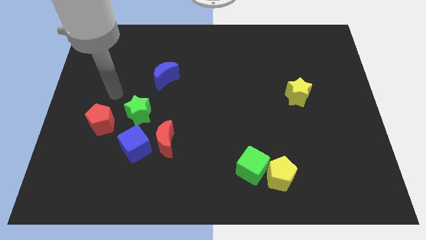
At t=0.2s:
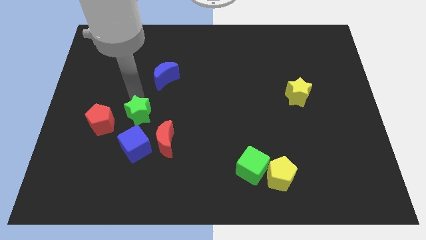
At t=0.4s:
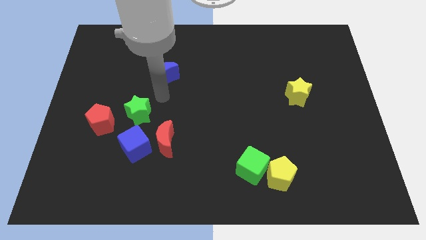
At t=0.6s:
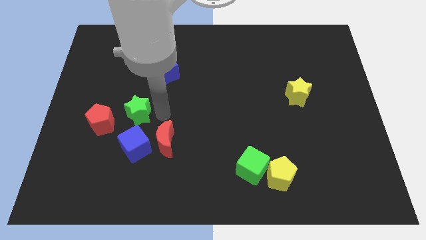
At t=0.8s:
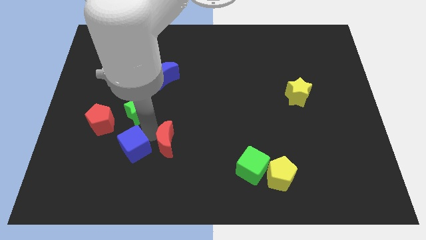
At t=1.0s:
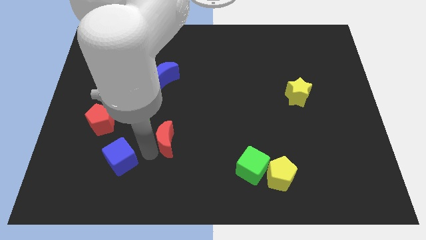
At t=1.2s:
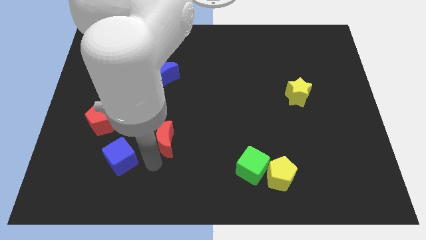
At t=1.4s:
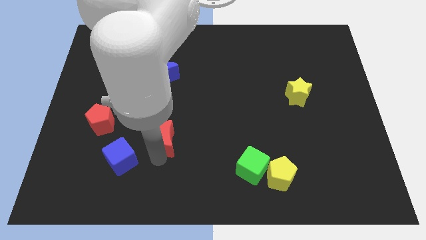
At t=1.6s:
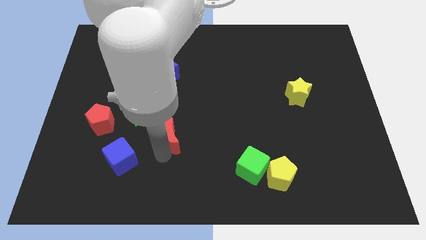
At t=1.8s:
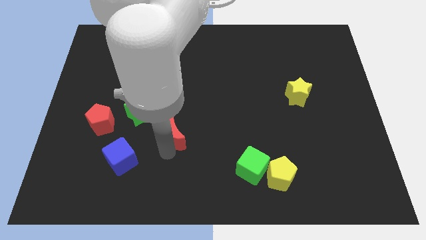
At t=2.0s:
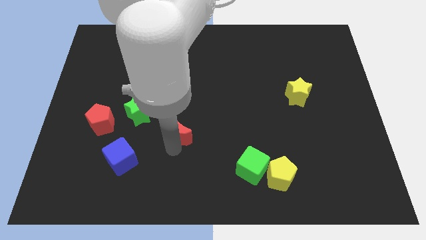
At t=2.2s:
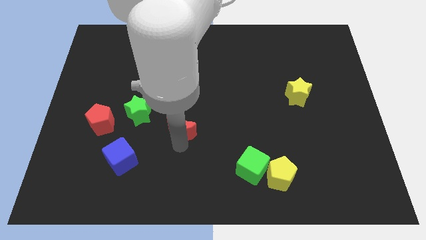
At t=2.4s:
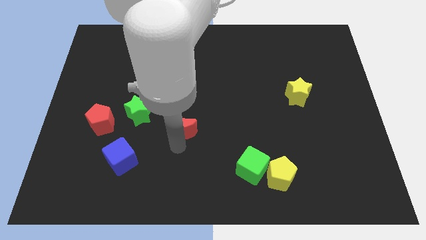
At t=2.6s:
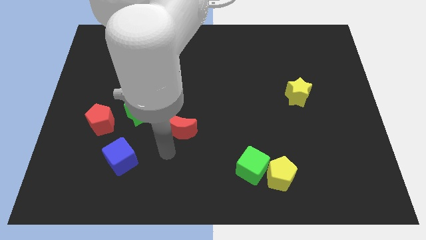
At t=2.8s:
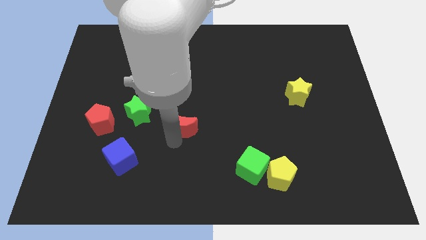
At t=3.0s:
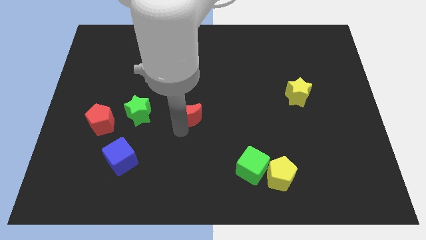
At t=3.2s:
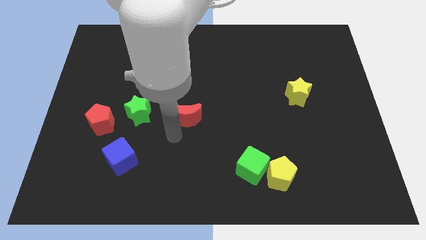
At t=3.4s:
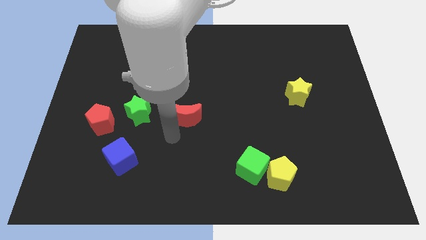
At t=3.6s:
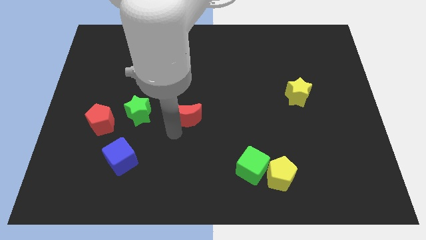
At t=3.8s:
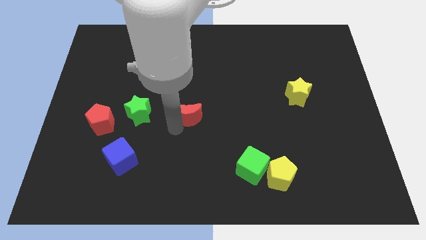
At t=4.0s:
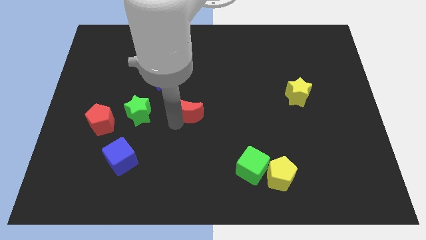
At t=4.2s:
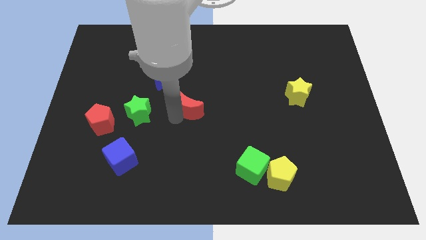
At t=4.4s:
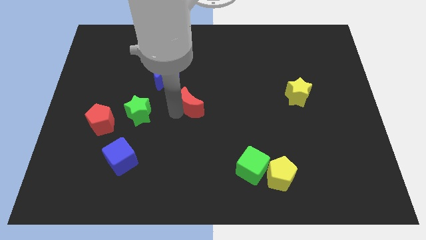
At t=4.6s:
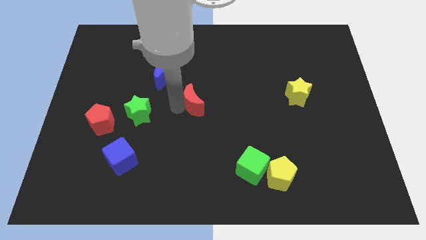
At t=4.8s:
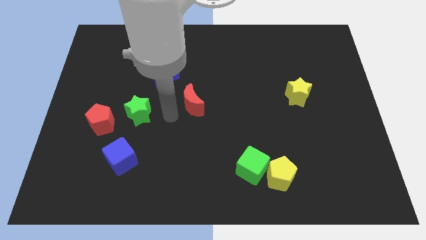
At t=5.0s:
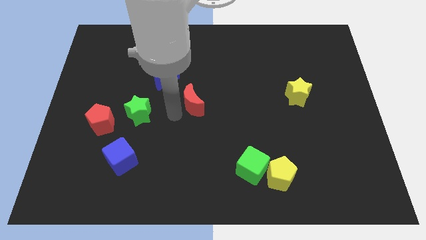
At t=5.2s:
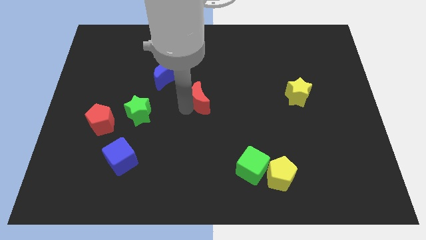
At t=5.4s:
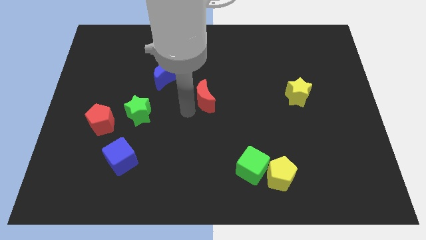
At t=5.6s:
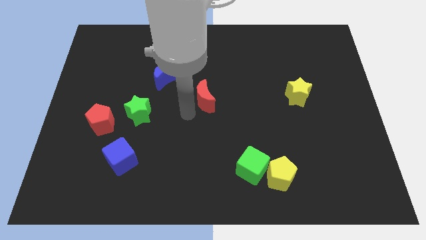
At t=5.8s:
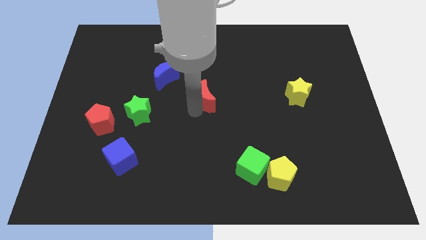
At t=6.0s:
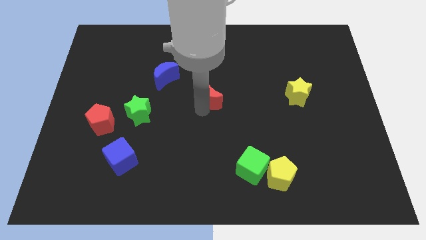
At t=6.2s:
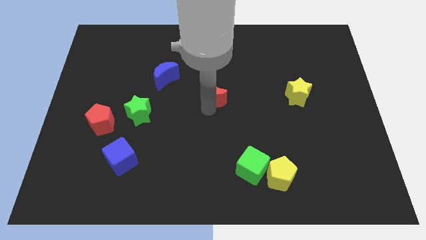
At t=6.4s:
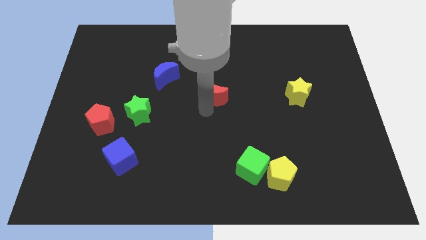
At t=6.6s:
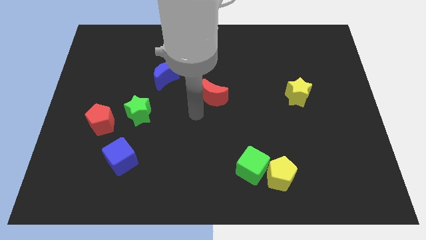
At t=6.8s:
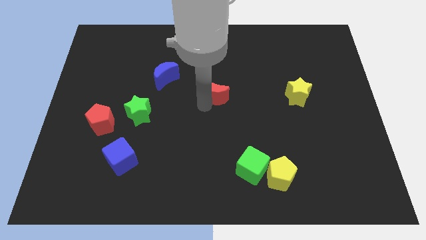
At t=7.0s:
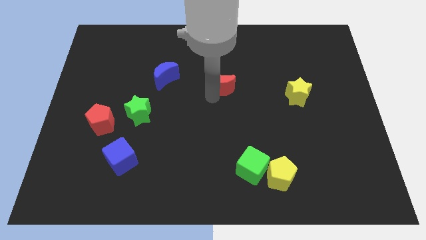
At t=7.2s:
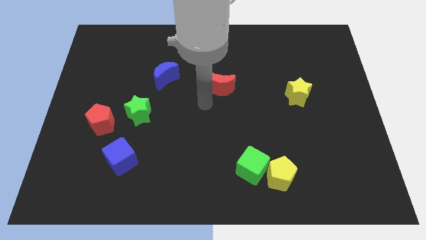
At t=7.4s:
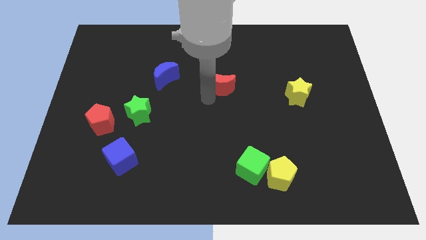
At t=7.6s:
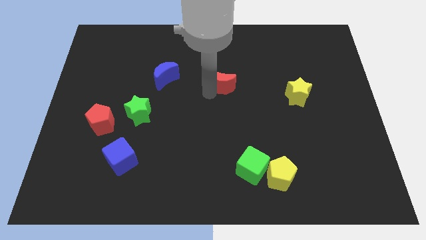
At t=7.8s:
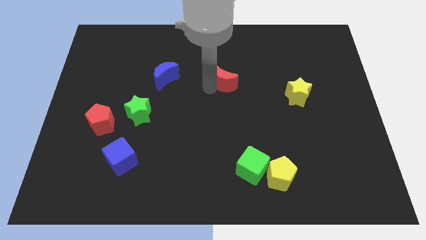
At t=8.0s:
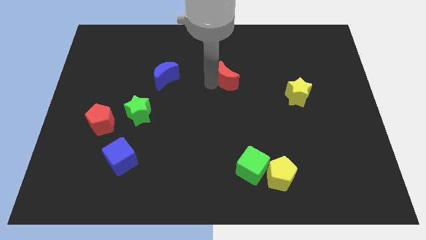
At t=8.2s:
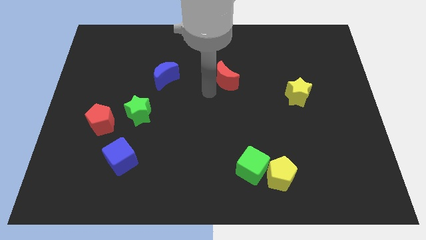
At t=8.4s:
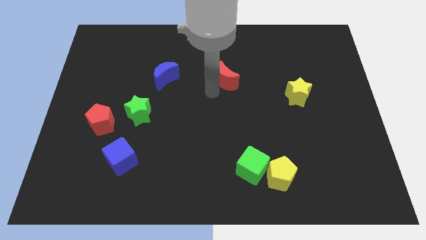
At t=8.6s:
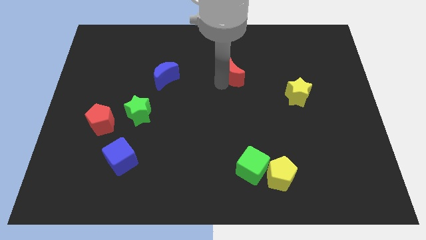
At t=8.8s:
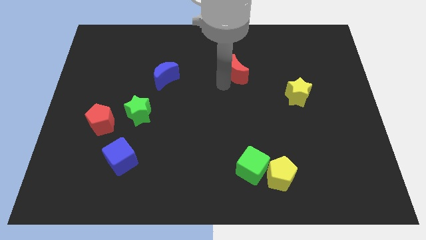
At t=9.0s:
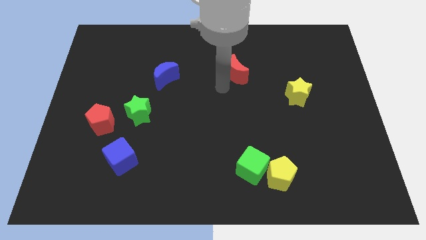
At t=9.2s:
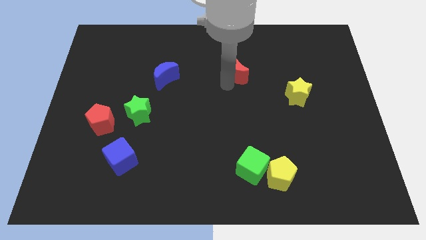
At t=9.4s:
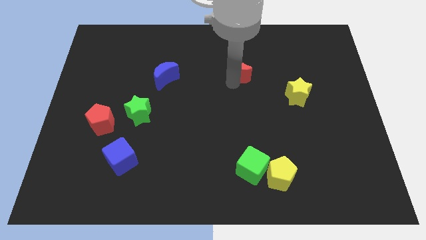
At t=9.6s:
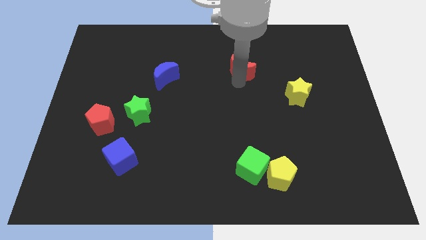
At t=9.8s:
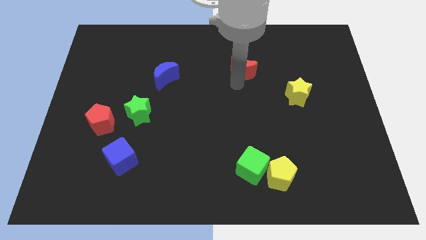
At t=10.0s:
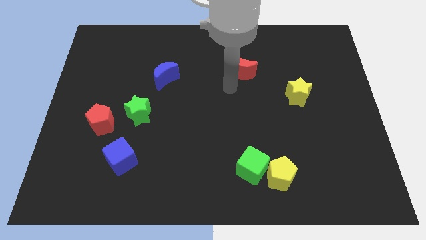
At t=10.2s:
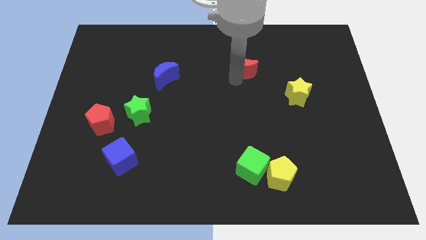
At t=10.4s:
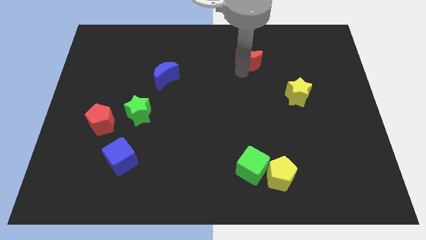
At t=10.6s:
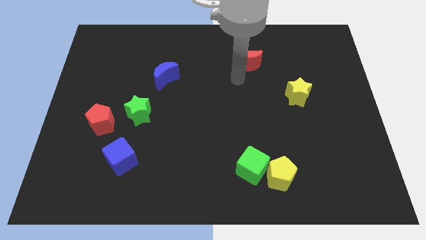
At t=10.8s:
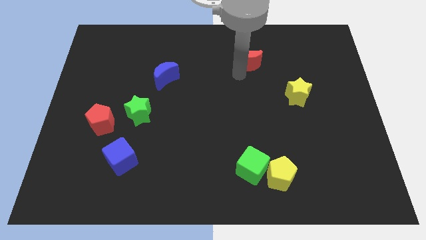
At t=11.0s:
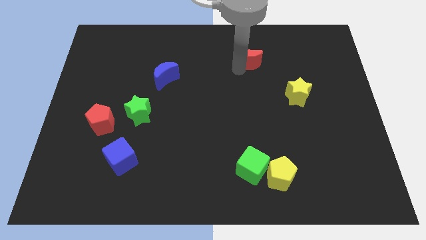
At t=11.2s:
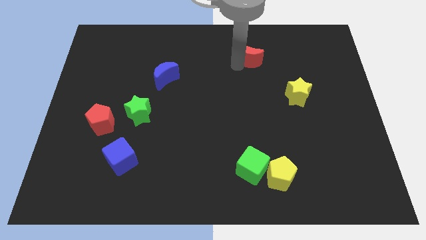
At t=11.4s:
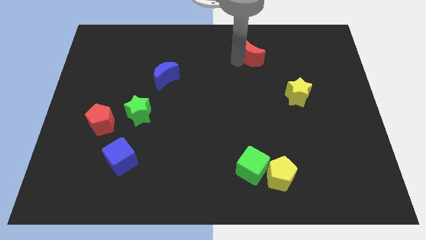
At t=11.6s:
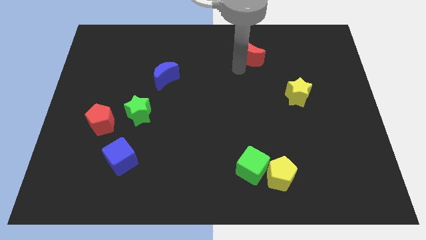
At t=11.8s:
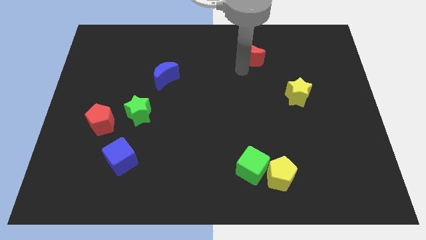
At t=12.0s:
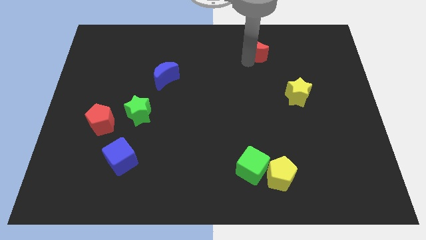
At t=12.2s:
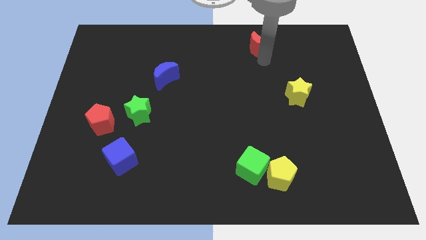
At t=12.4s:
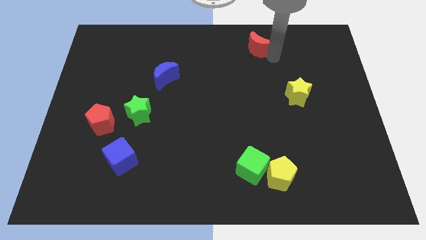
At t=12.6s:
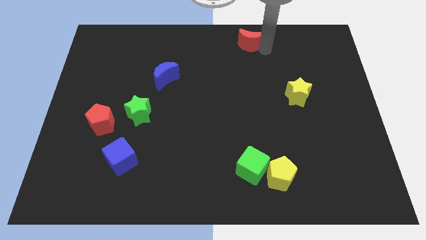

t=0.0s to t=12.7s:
push the red moon to the towards your base
